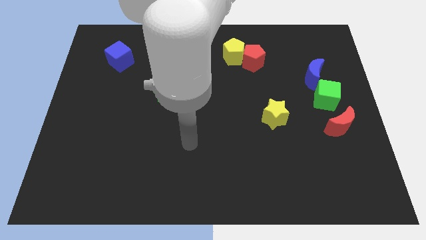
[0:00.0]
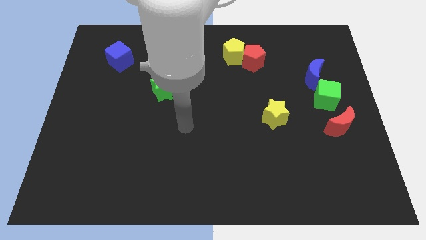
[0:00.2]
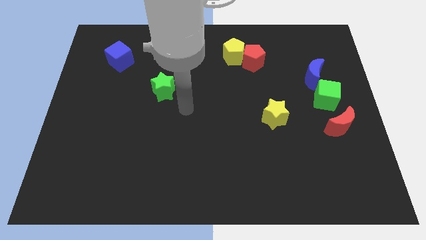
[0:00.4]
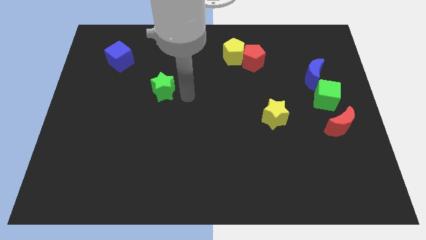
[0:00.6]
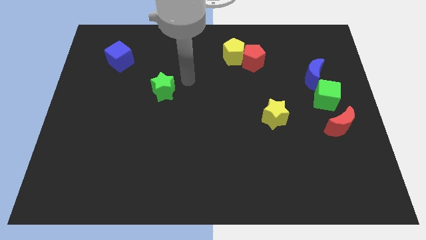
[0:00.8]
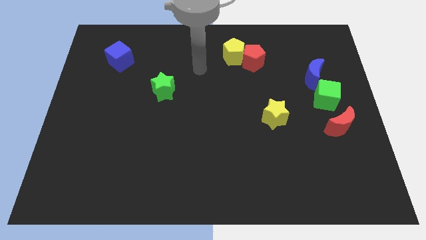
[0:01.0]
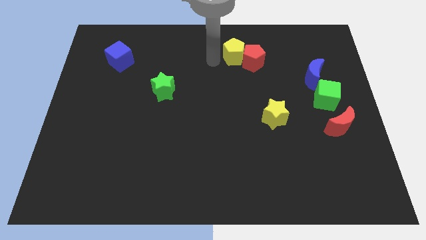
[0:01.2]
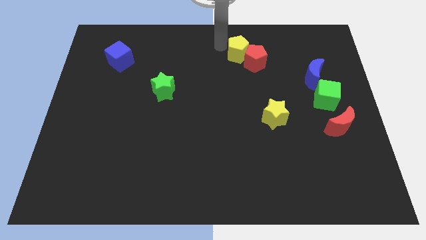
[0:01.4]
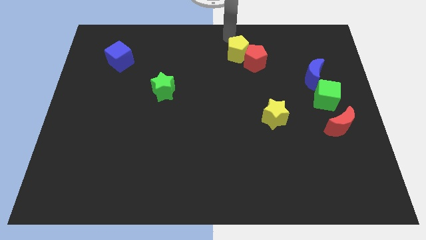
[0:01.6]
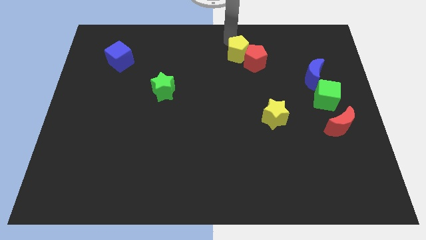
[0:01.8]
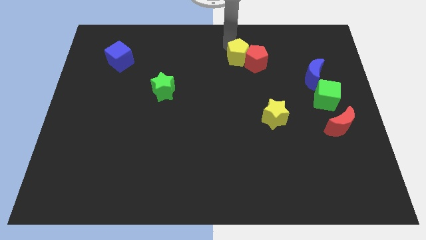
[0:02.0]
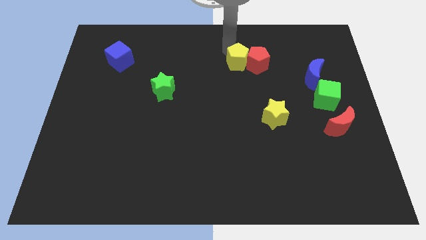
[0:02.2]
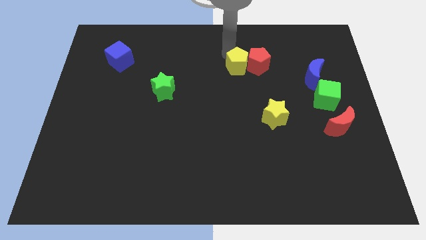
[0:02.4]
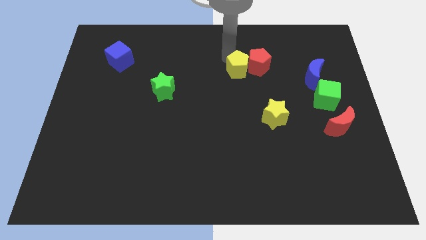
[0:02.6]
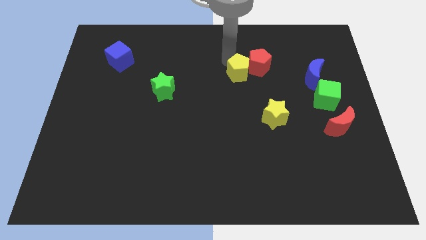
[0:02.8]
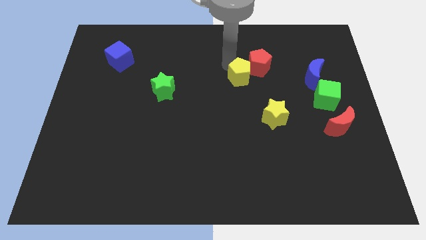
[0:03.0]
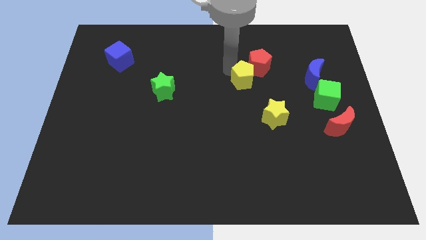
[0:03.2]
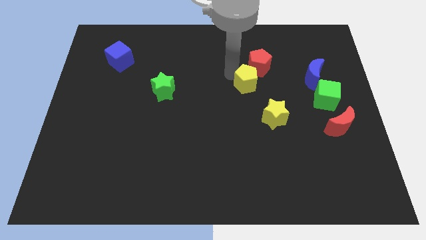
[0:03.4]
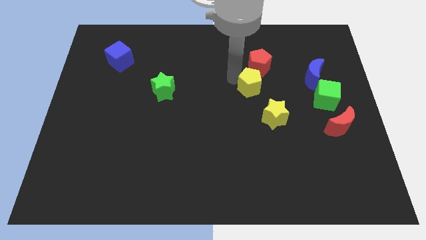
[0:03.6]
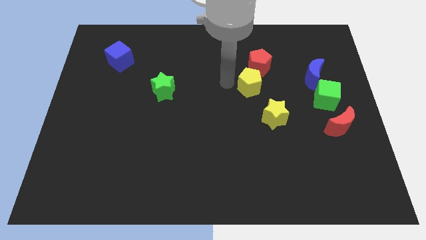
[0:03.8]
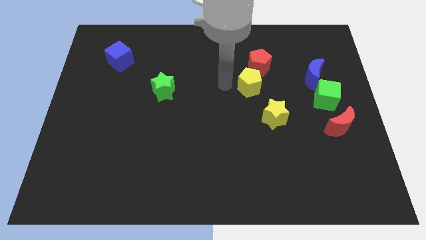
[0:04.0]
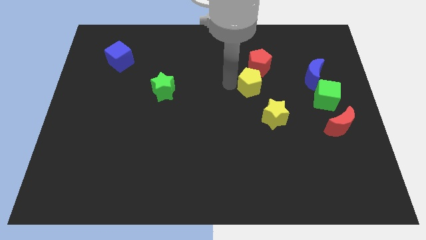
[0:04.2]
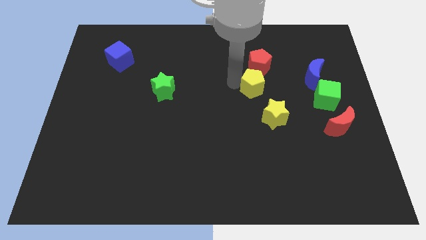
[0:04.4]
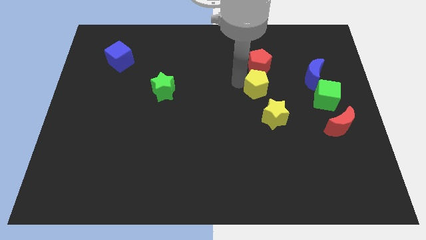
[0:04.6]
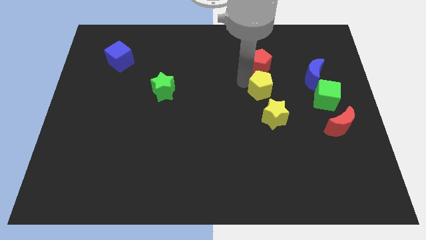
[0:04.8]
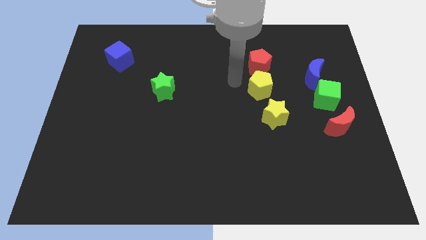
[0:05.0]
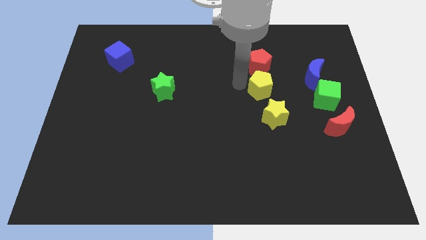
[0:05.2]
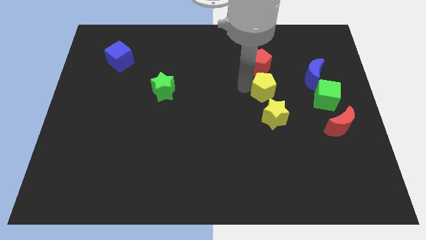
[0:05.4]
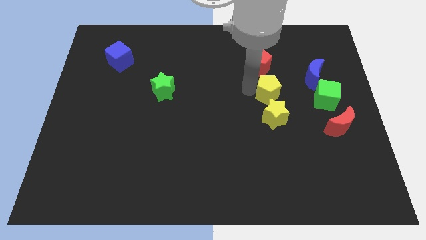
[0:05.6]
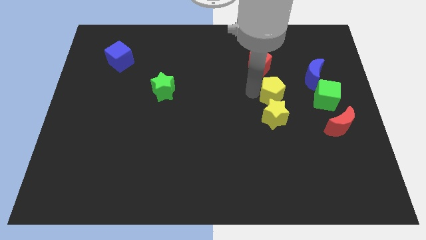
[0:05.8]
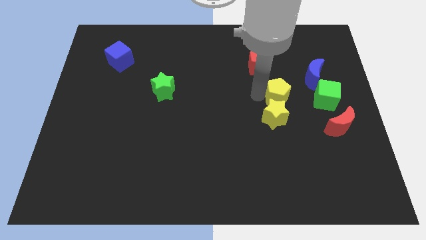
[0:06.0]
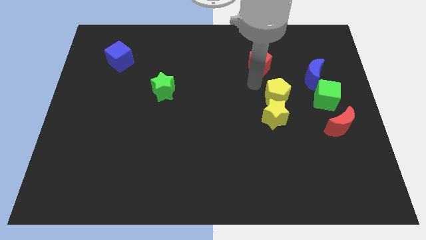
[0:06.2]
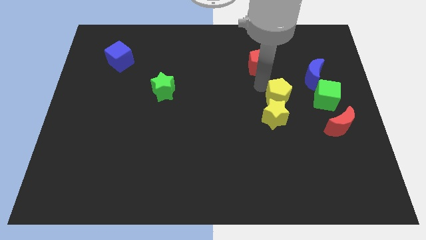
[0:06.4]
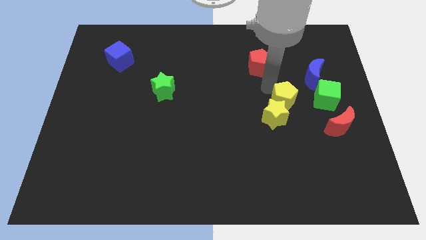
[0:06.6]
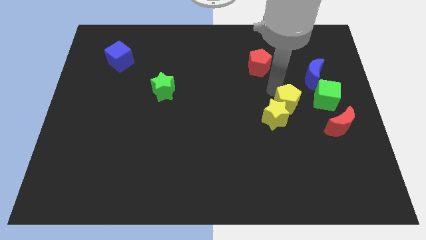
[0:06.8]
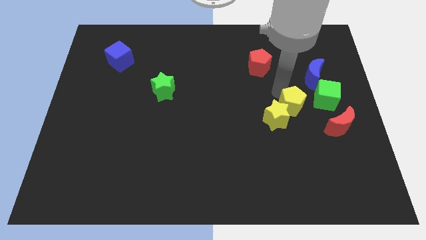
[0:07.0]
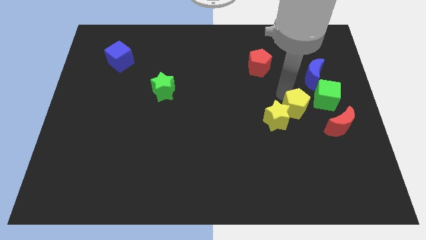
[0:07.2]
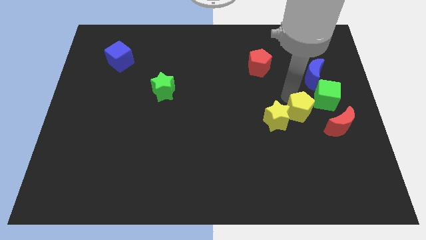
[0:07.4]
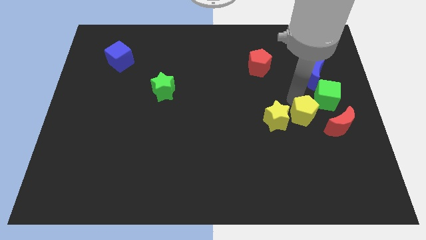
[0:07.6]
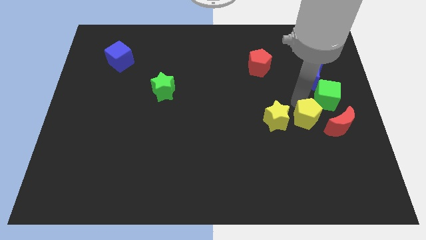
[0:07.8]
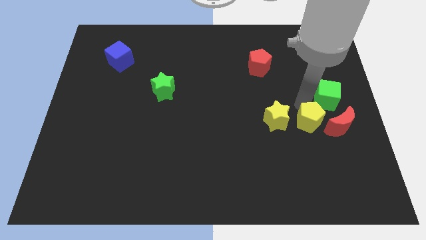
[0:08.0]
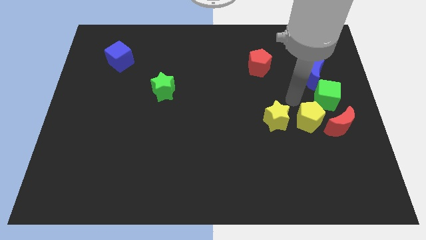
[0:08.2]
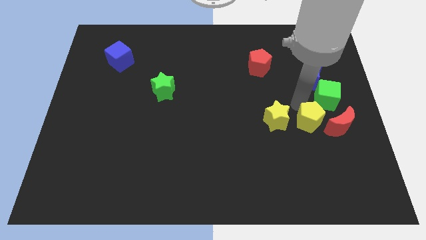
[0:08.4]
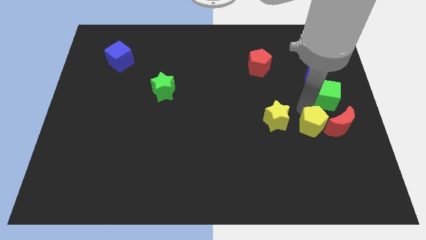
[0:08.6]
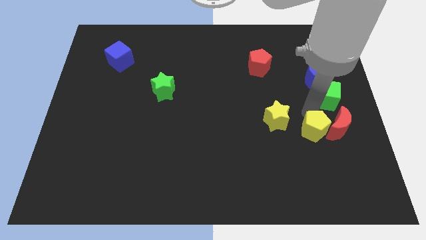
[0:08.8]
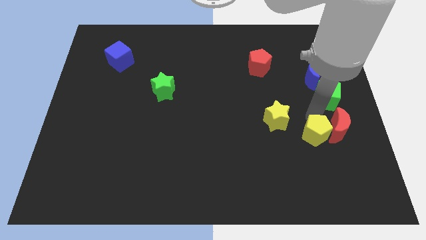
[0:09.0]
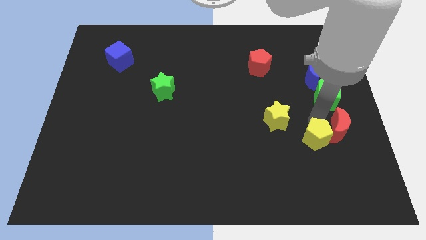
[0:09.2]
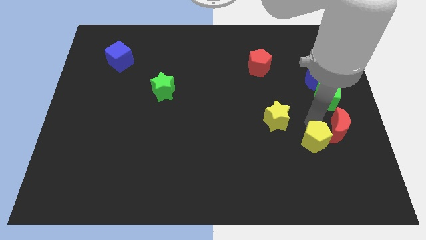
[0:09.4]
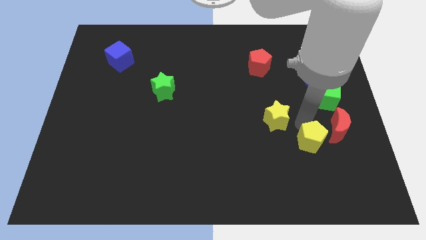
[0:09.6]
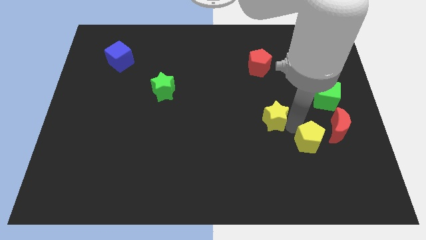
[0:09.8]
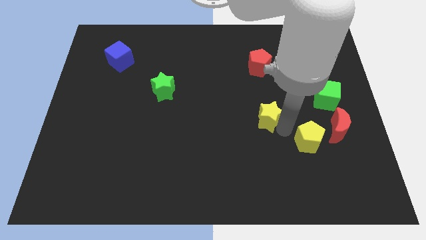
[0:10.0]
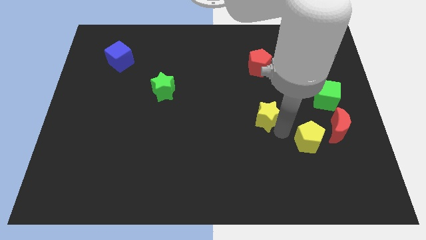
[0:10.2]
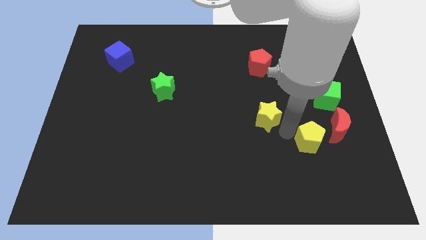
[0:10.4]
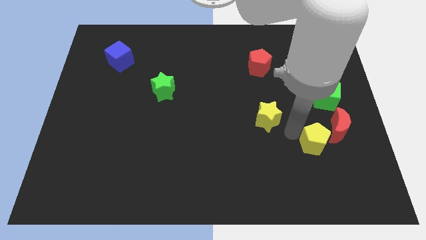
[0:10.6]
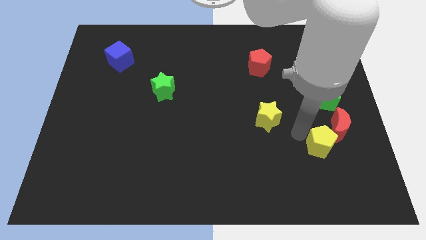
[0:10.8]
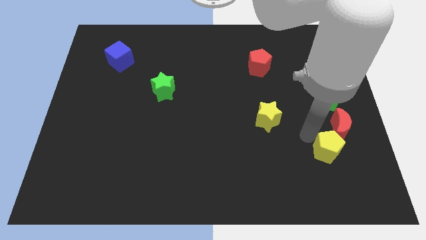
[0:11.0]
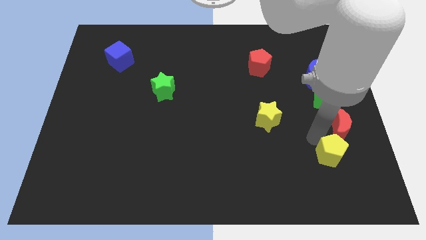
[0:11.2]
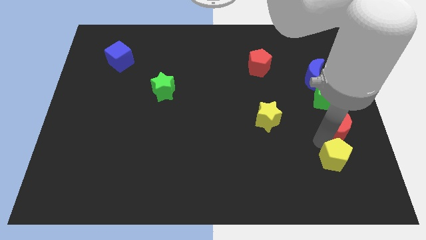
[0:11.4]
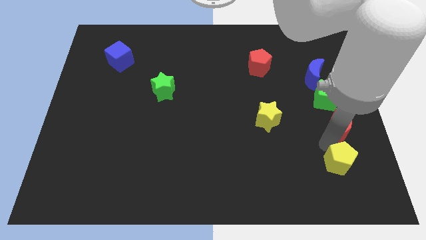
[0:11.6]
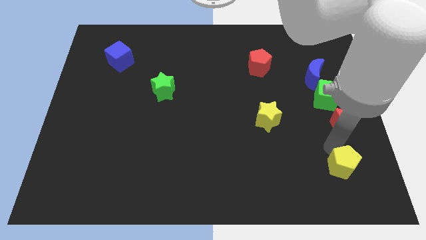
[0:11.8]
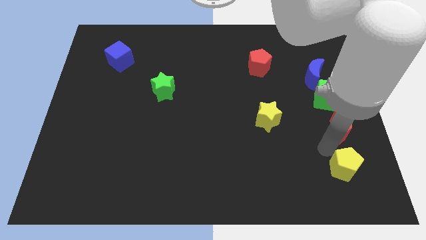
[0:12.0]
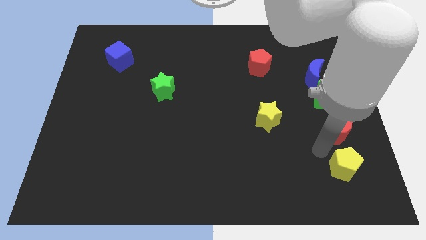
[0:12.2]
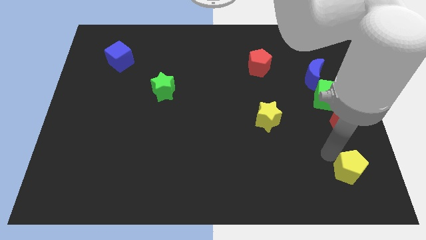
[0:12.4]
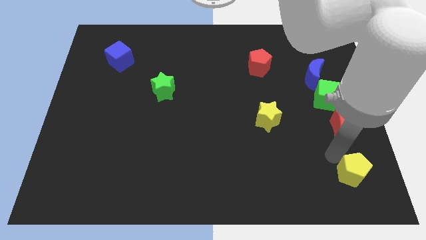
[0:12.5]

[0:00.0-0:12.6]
slide the yellow pentagon to the bottom right corner
